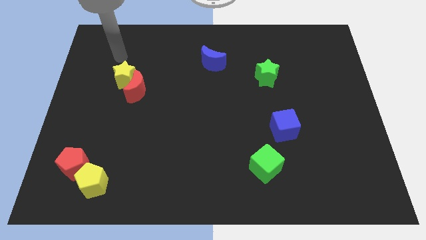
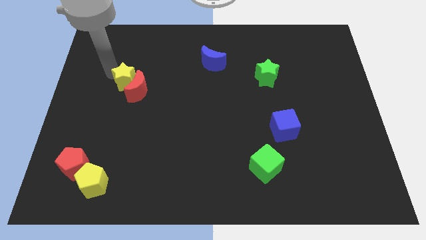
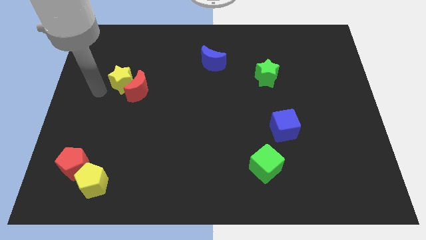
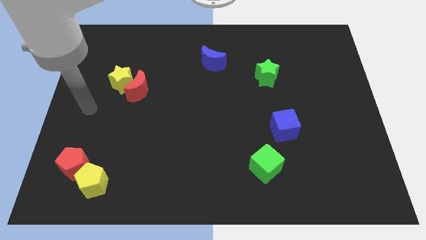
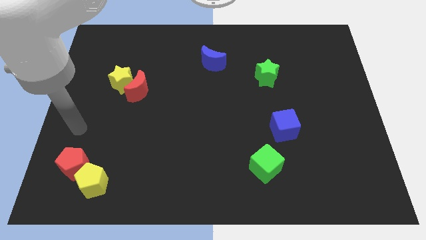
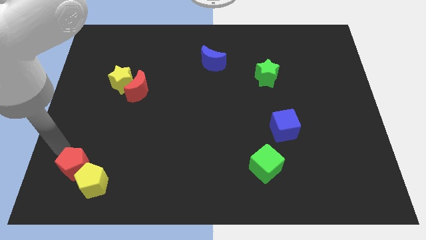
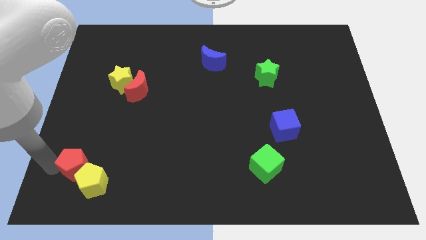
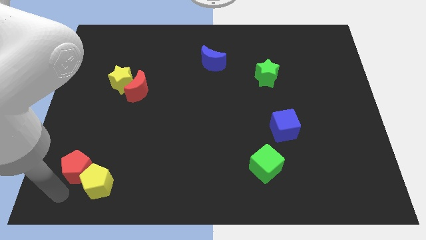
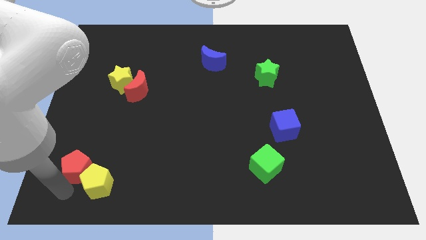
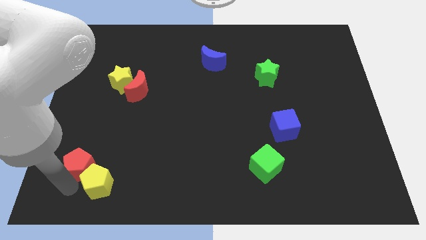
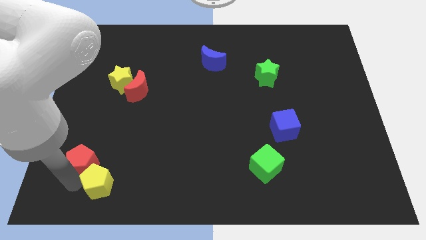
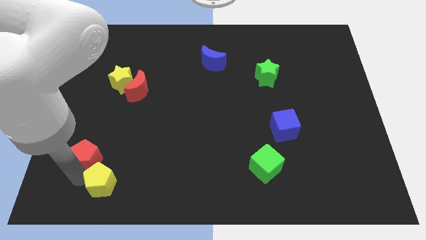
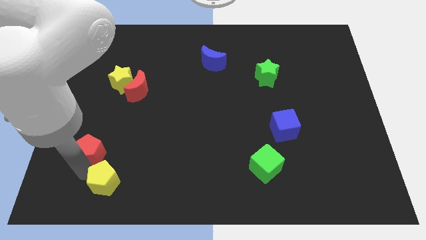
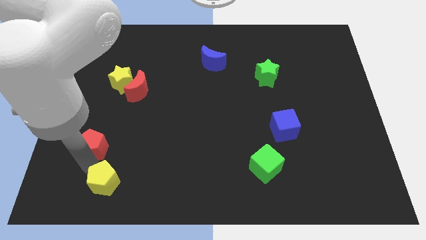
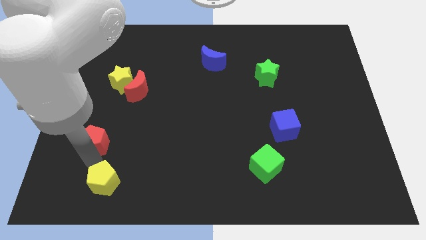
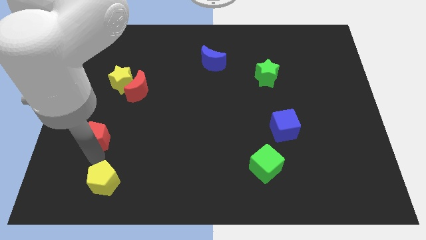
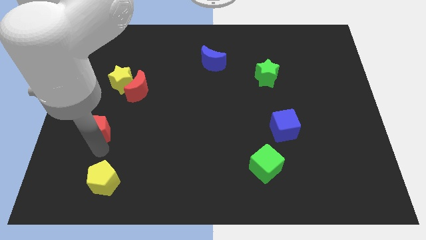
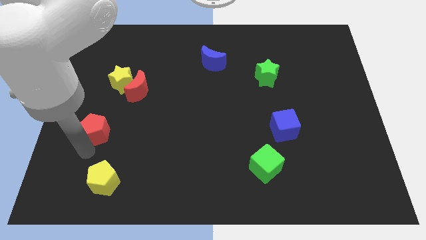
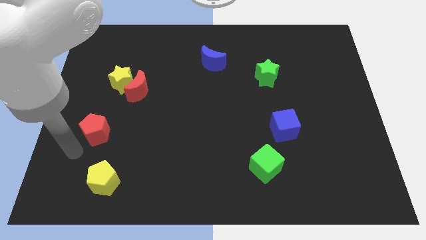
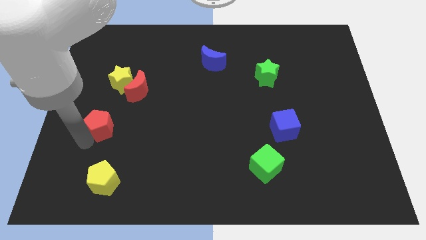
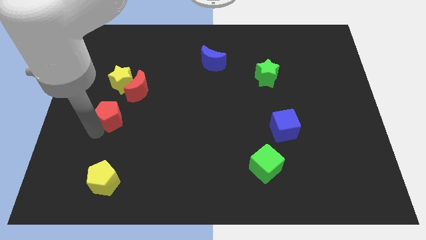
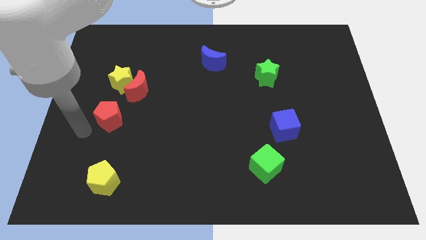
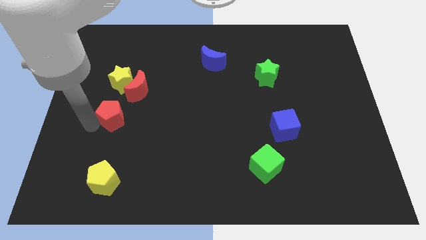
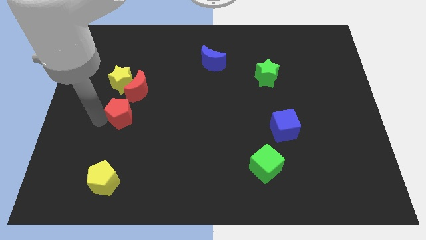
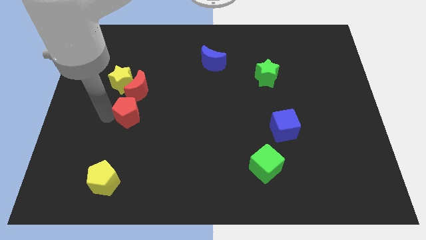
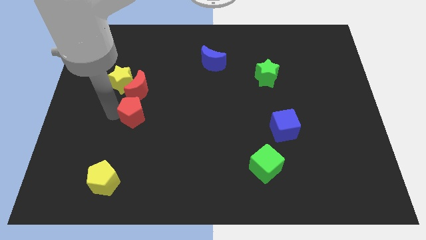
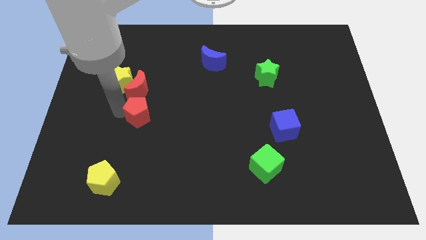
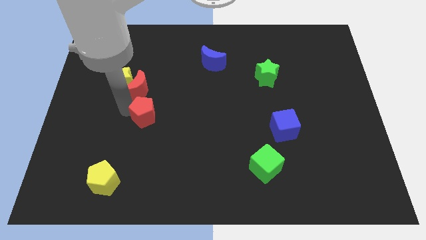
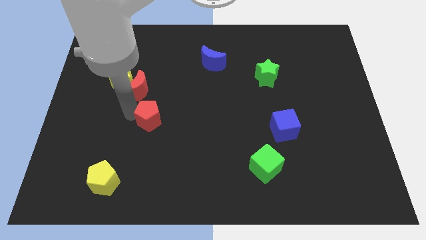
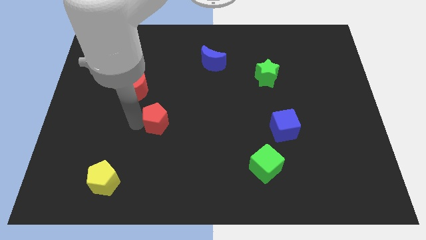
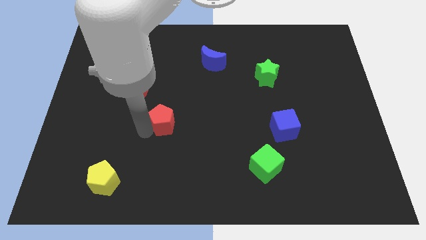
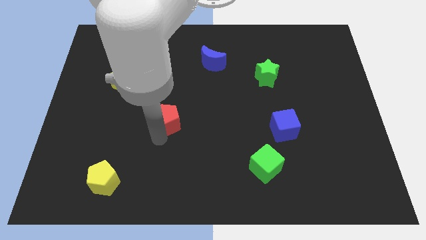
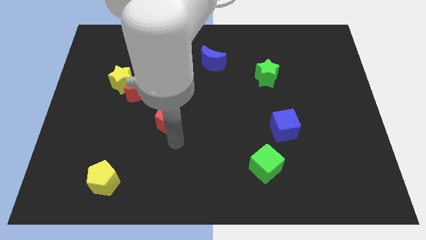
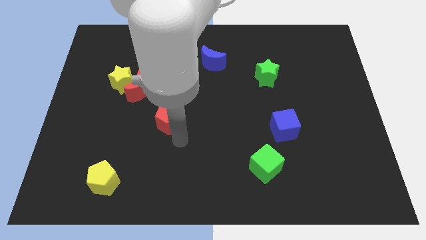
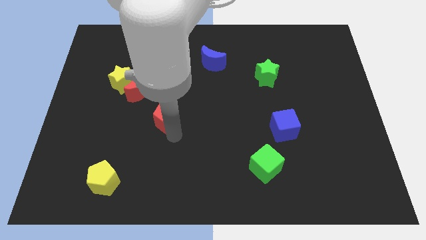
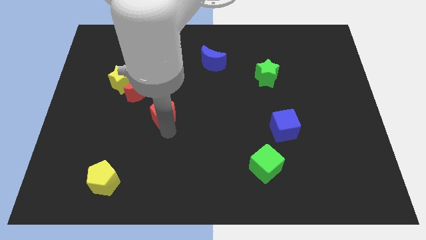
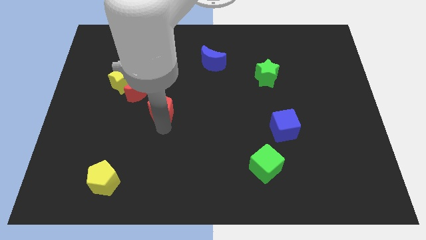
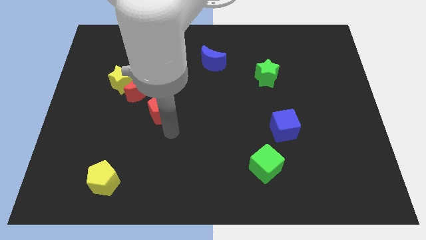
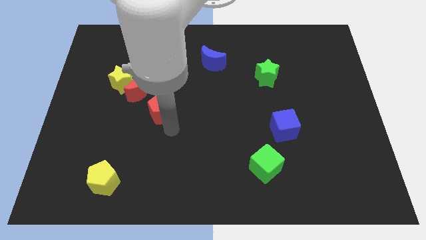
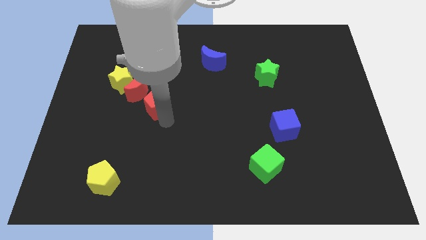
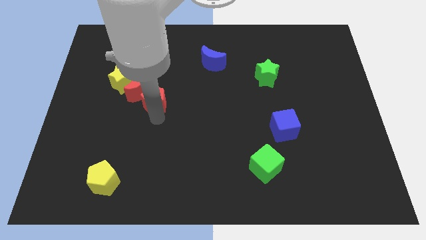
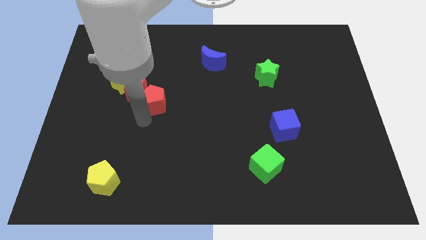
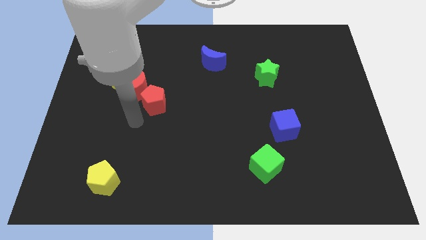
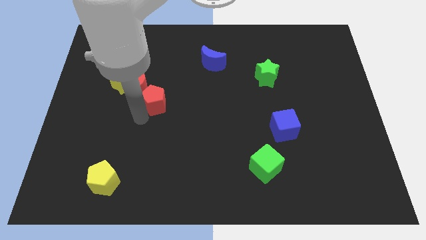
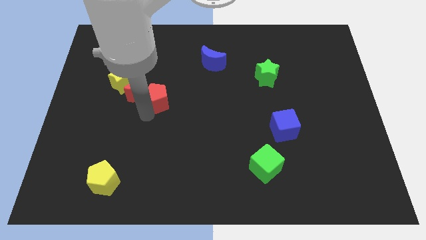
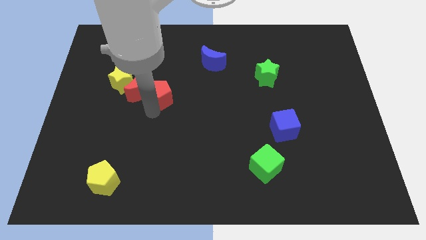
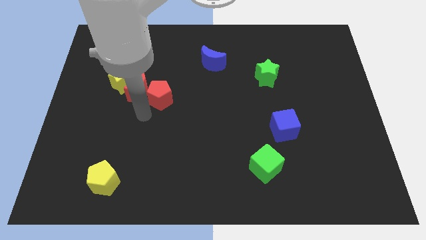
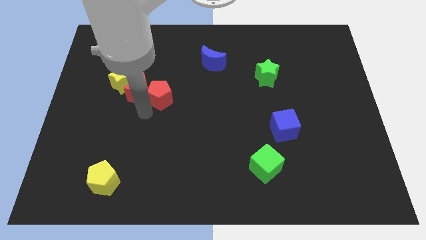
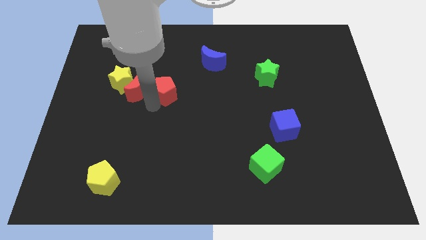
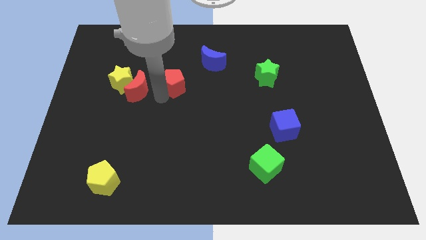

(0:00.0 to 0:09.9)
slide the red pentagon to the bottom left side of the blue moon

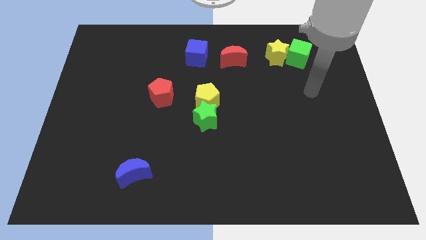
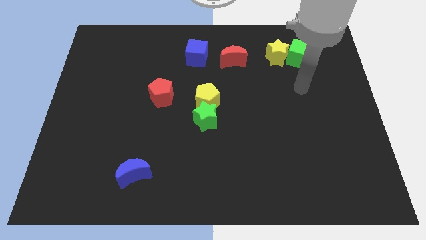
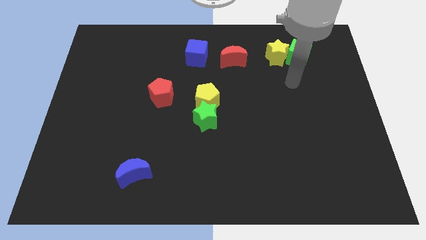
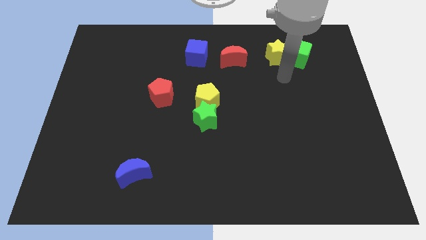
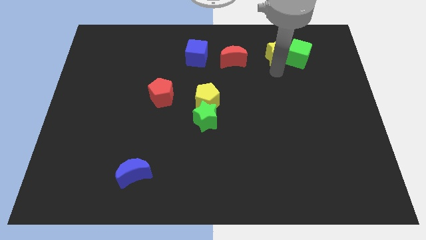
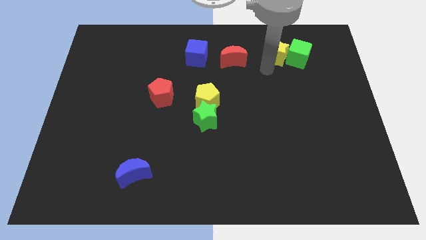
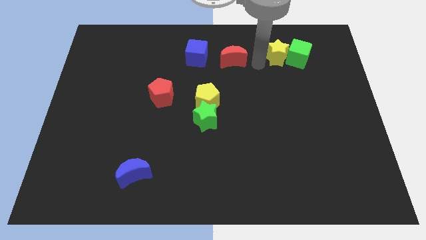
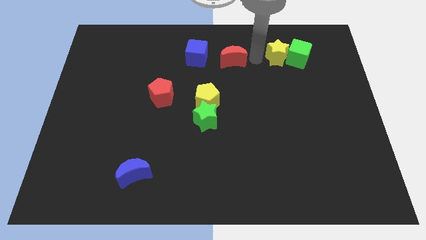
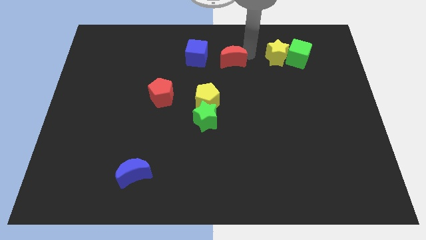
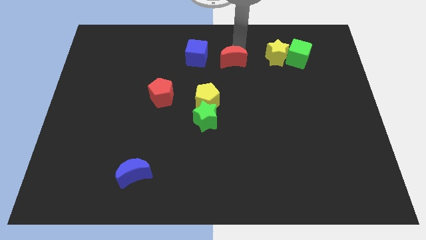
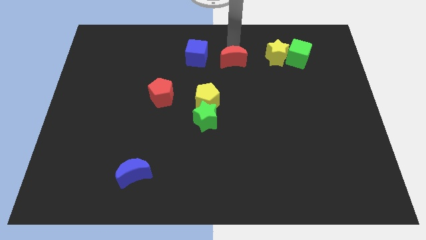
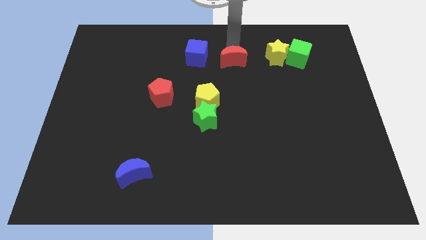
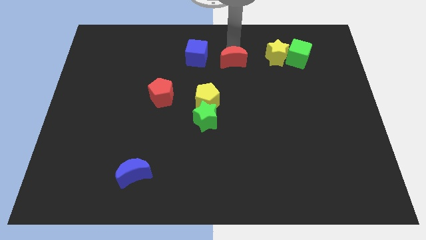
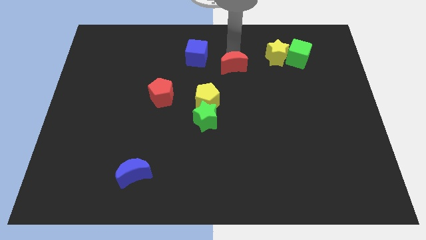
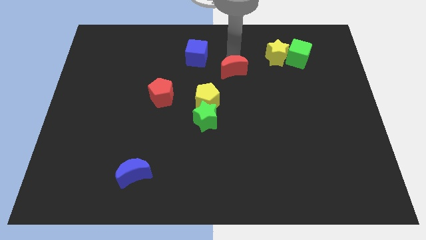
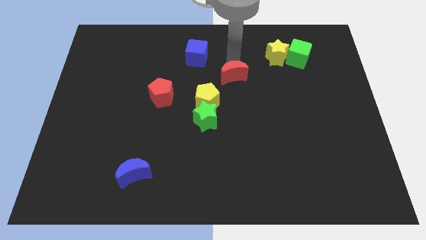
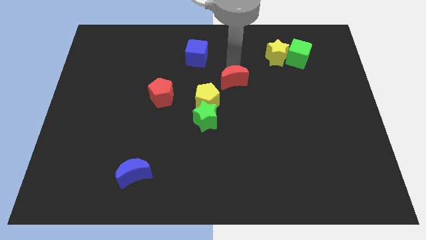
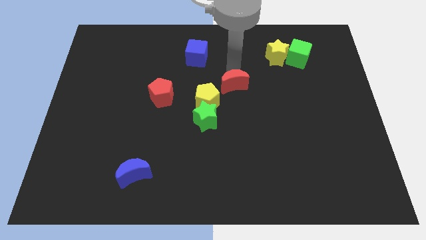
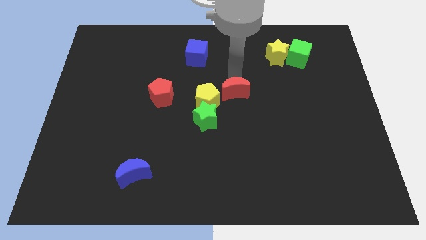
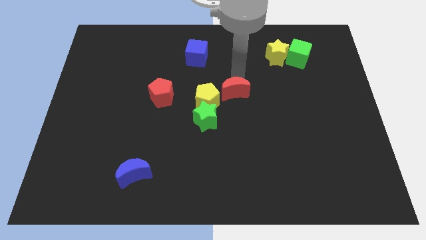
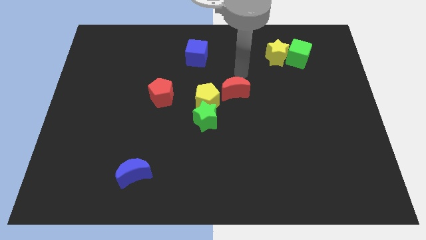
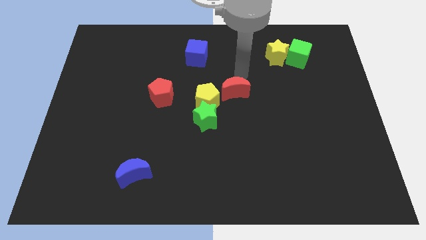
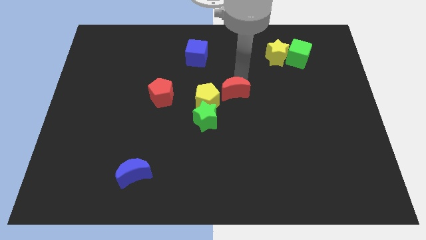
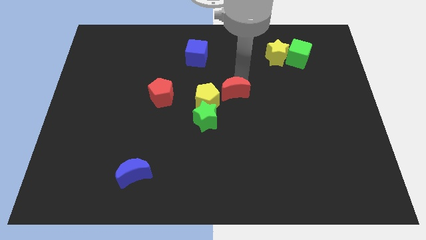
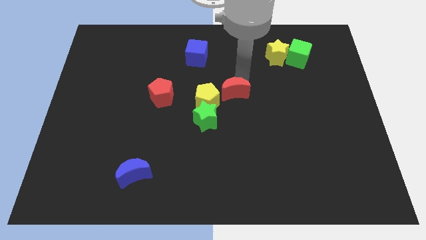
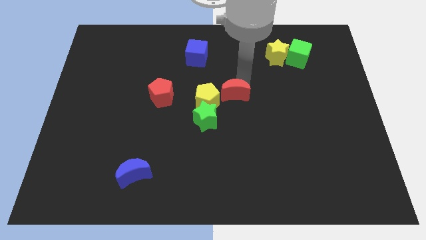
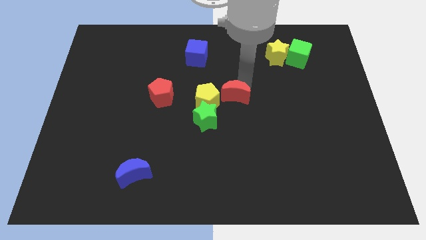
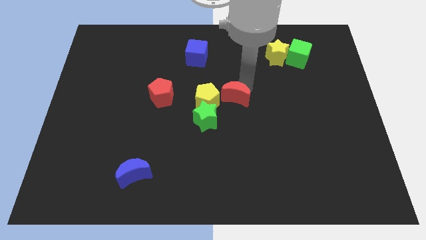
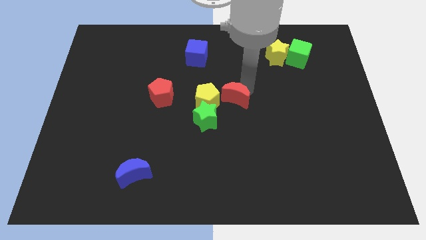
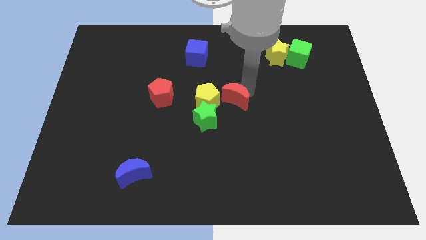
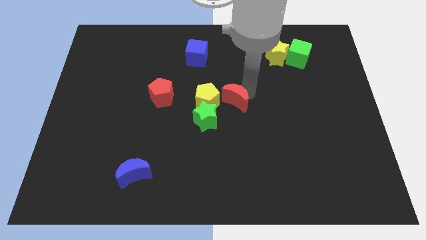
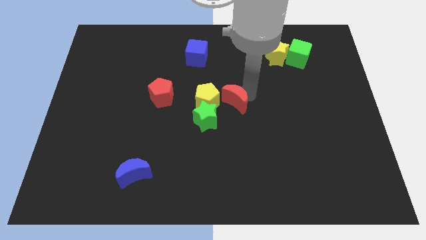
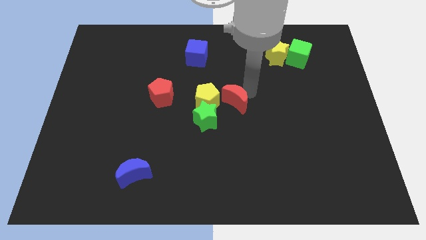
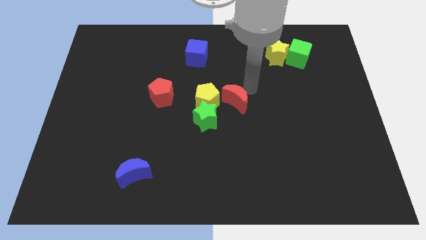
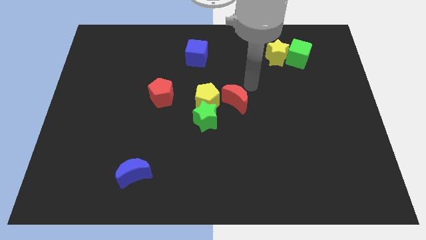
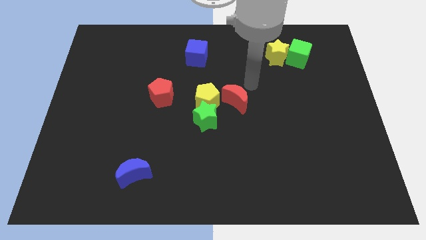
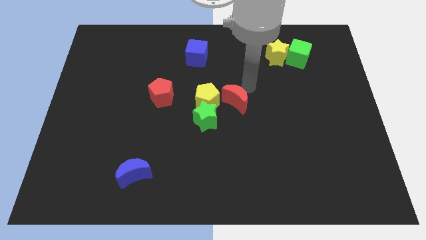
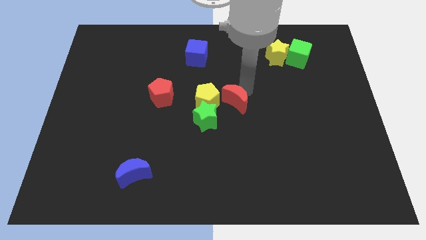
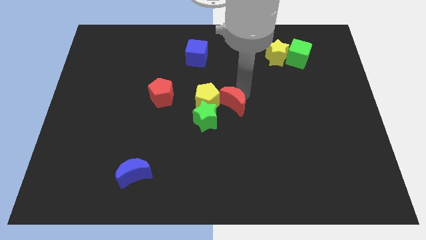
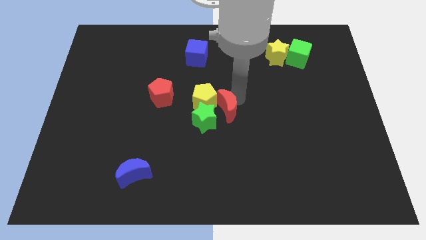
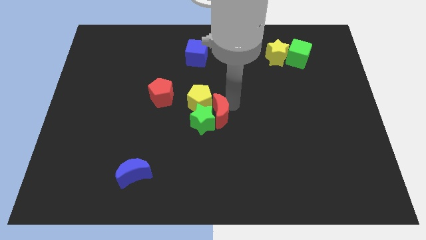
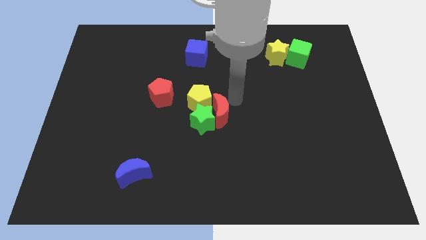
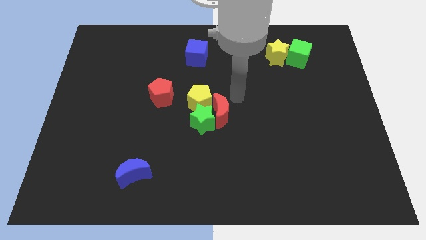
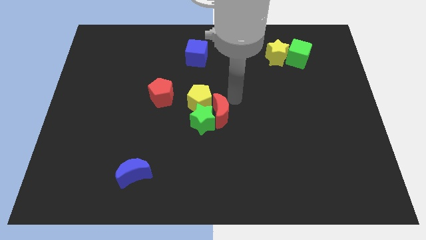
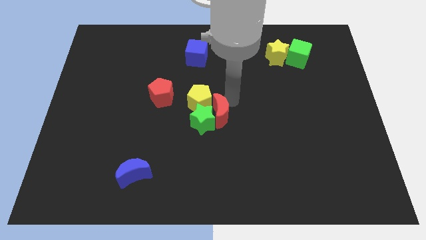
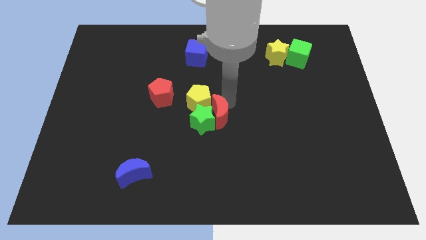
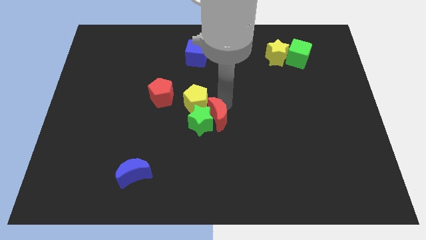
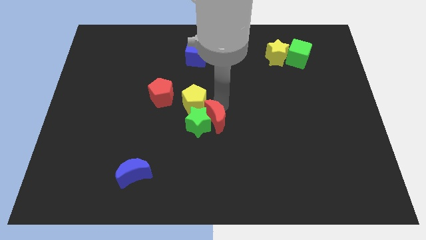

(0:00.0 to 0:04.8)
put the red moon below the yellow pentagon
